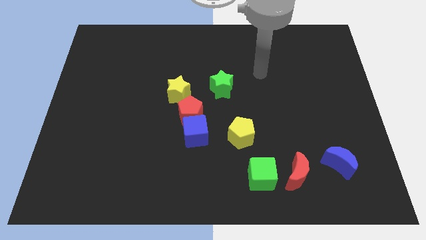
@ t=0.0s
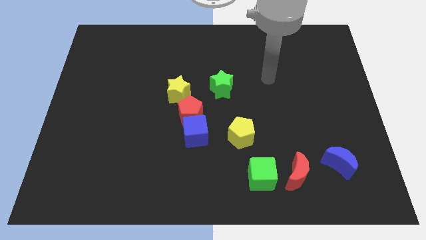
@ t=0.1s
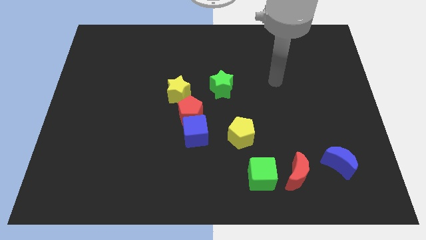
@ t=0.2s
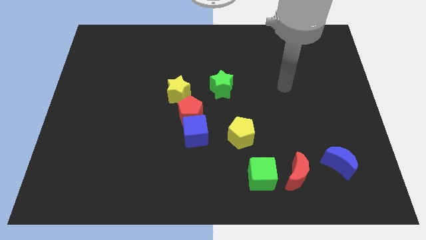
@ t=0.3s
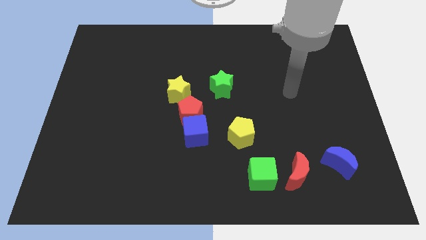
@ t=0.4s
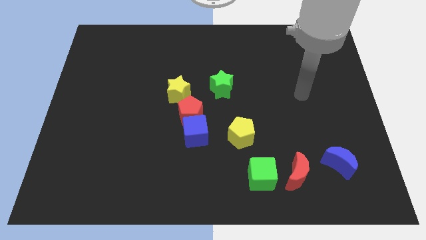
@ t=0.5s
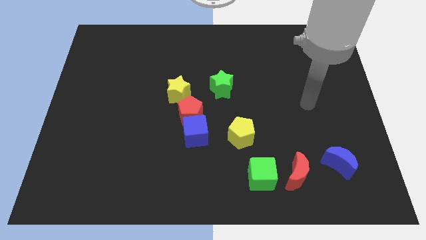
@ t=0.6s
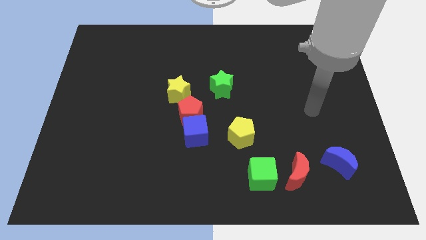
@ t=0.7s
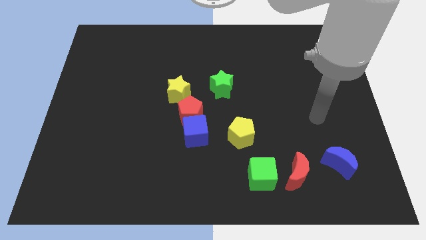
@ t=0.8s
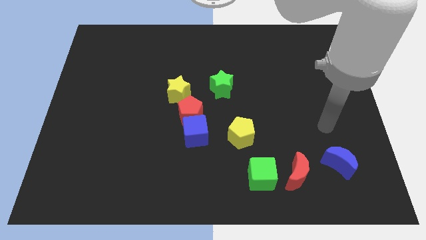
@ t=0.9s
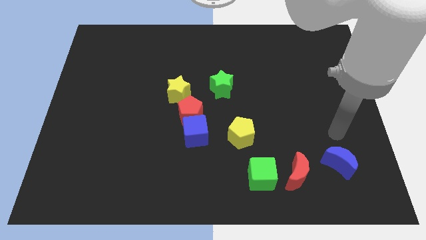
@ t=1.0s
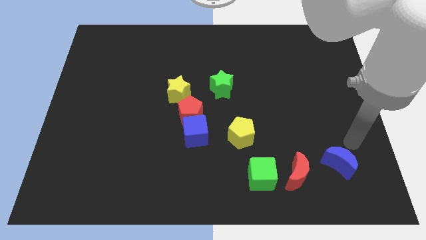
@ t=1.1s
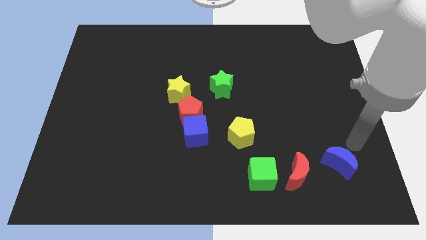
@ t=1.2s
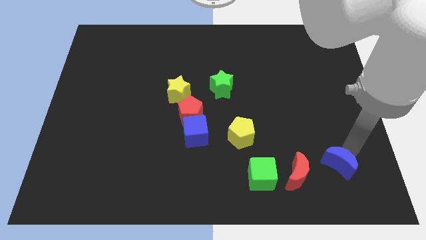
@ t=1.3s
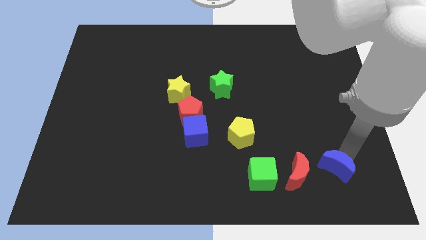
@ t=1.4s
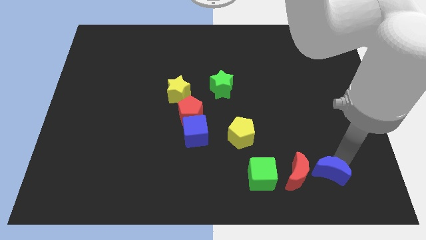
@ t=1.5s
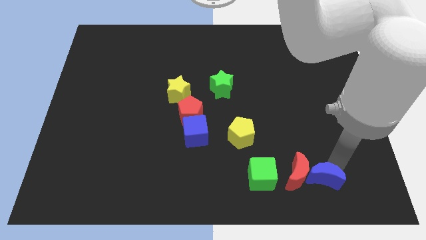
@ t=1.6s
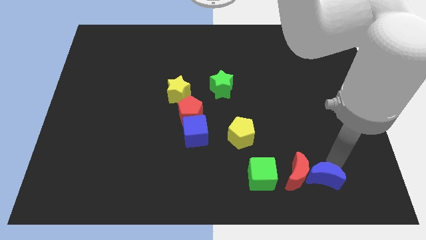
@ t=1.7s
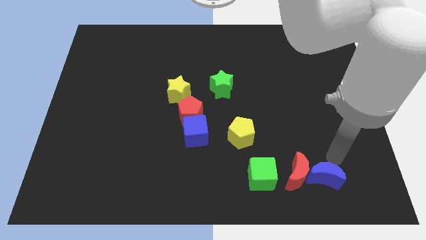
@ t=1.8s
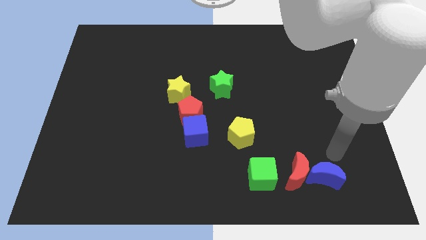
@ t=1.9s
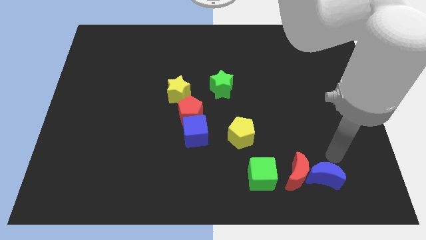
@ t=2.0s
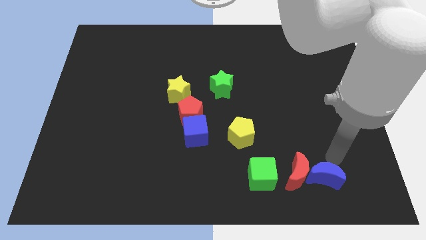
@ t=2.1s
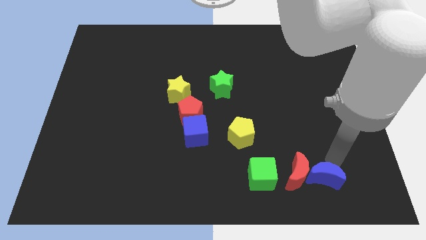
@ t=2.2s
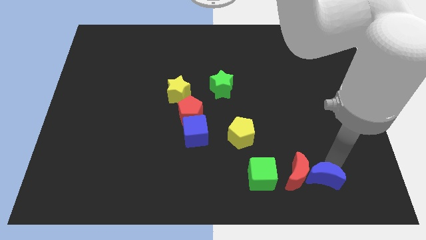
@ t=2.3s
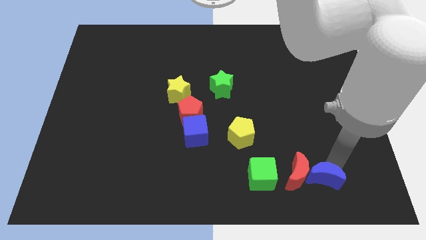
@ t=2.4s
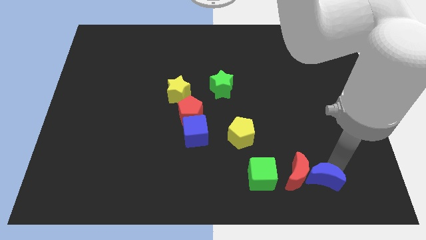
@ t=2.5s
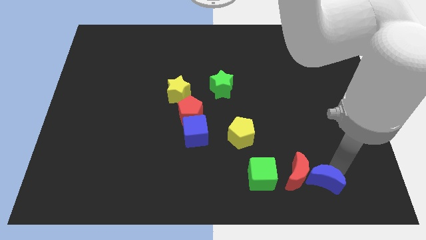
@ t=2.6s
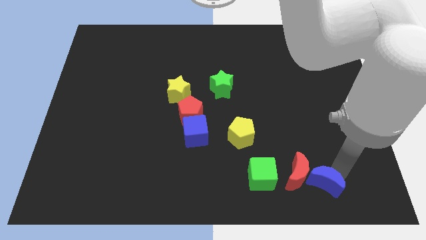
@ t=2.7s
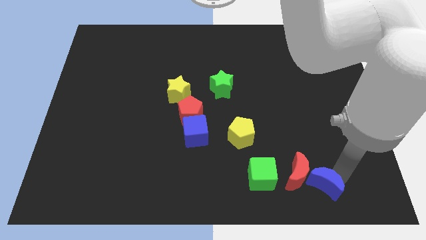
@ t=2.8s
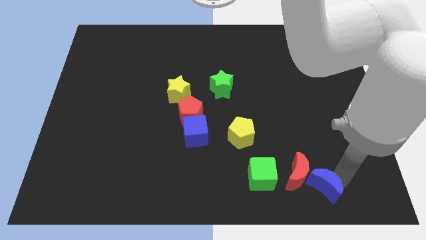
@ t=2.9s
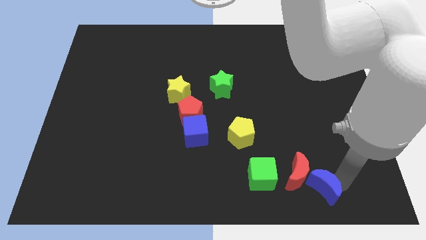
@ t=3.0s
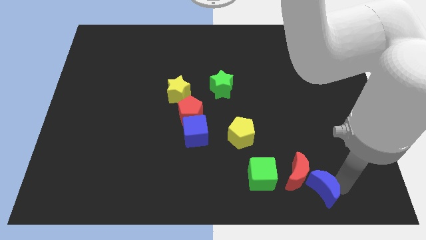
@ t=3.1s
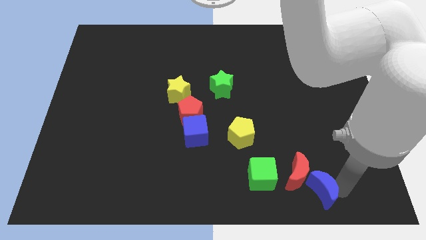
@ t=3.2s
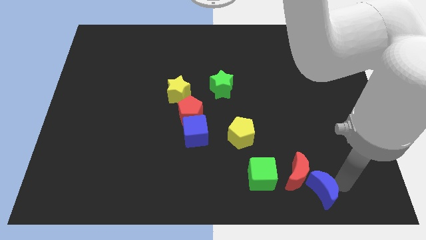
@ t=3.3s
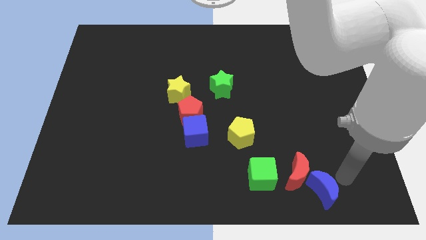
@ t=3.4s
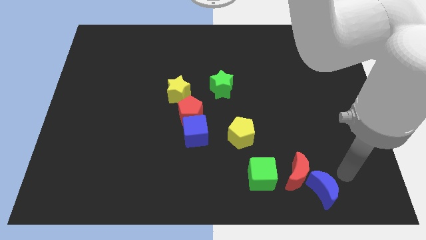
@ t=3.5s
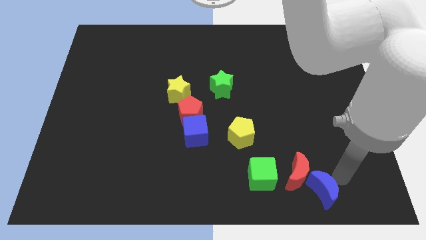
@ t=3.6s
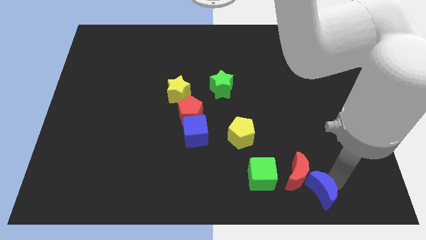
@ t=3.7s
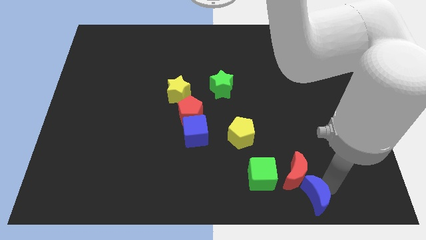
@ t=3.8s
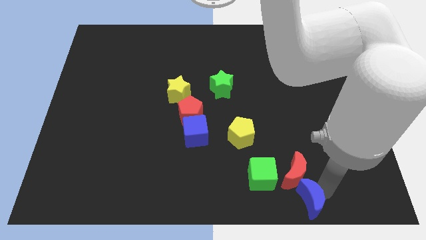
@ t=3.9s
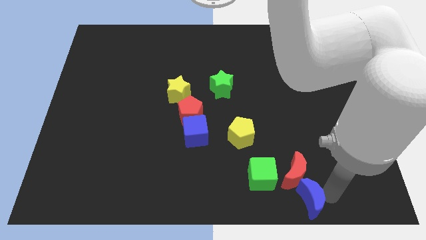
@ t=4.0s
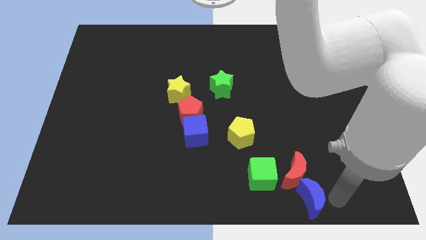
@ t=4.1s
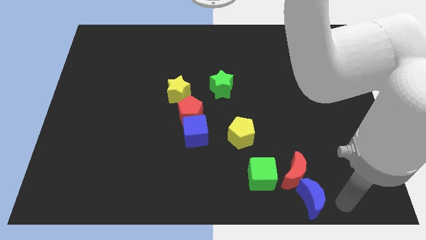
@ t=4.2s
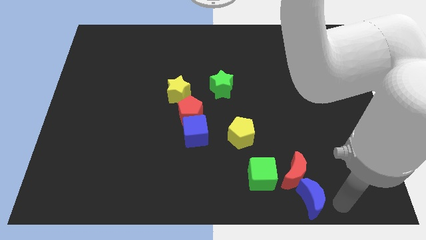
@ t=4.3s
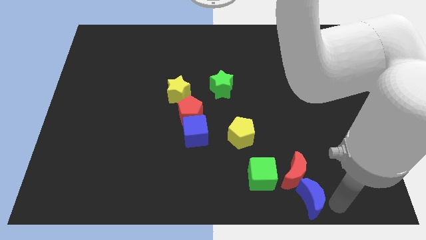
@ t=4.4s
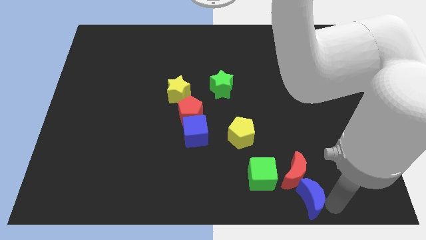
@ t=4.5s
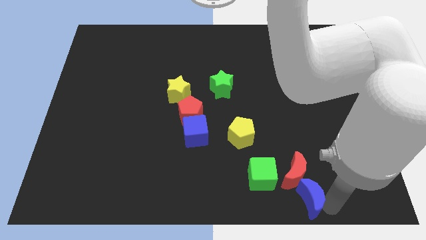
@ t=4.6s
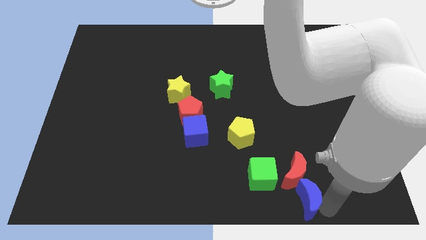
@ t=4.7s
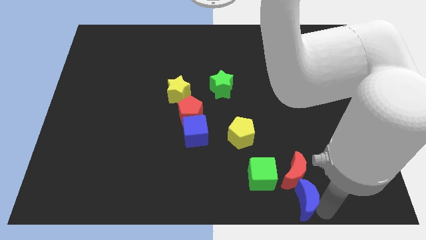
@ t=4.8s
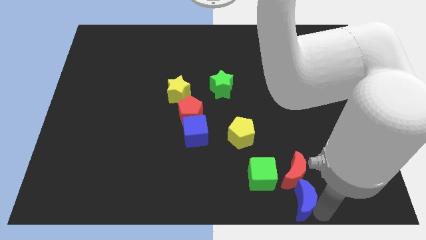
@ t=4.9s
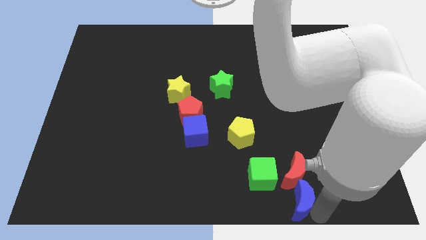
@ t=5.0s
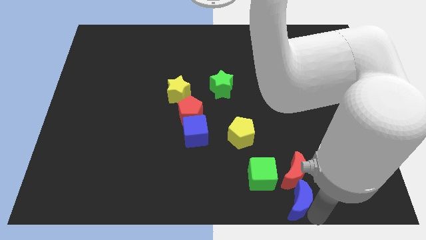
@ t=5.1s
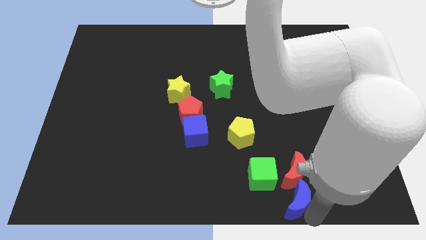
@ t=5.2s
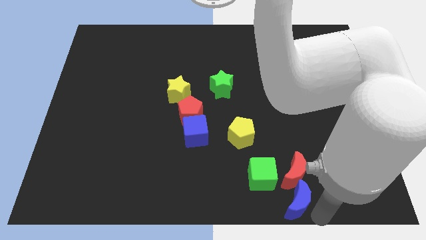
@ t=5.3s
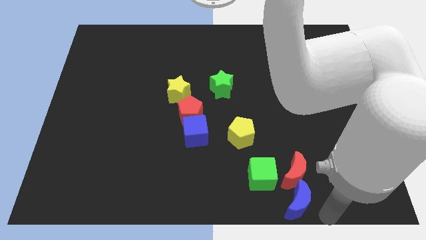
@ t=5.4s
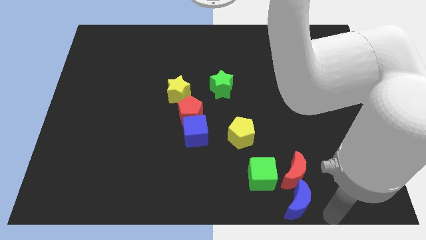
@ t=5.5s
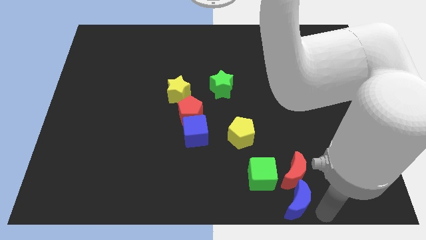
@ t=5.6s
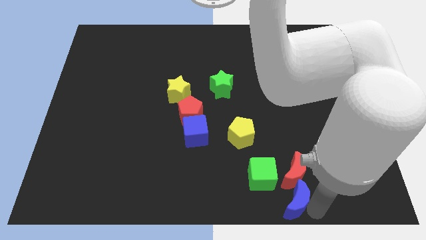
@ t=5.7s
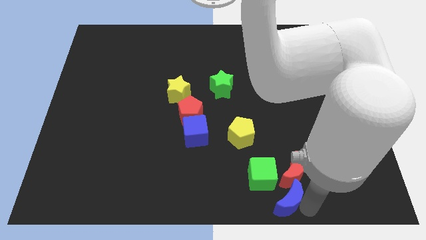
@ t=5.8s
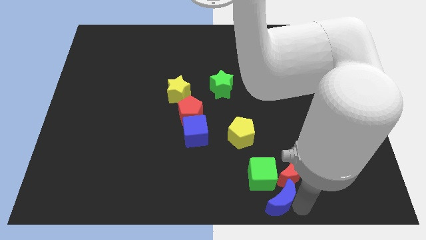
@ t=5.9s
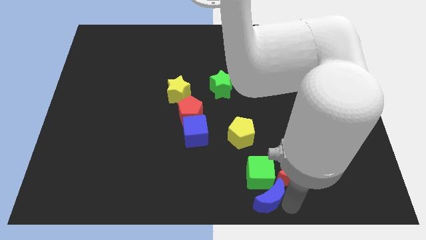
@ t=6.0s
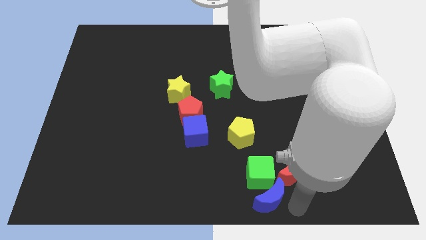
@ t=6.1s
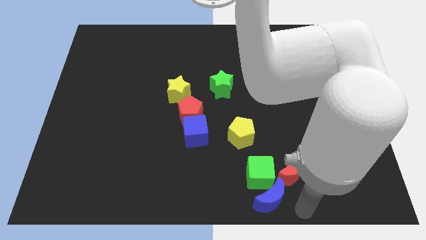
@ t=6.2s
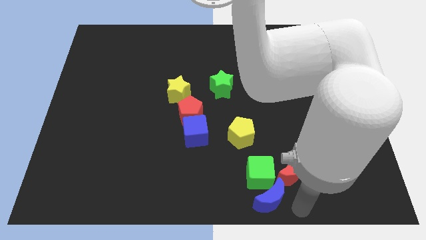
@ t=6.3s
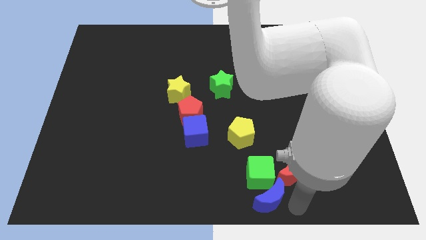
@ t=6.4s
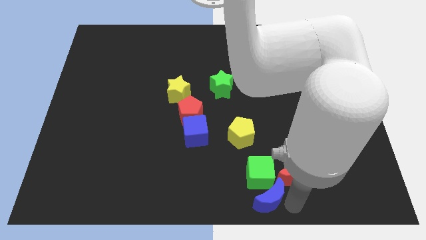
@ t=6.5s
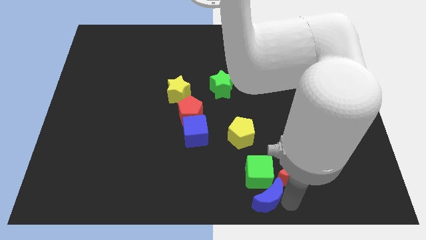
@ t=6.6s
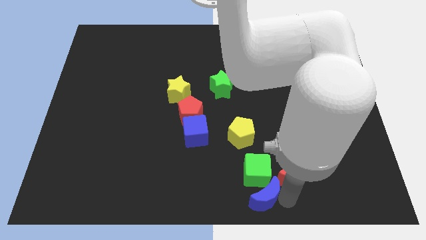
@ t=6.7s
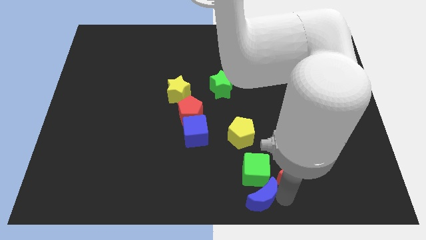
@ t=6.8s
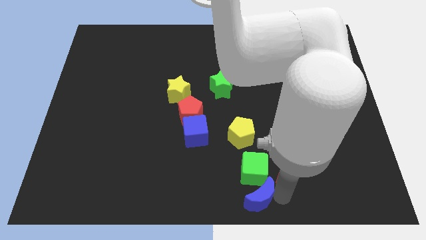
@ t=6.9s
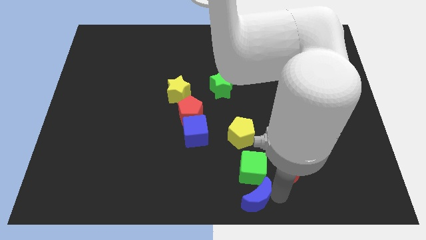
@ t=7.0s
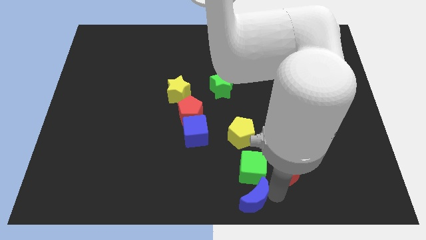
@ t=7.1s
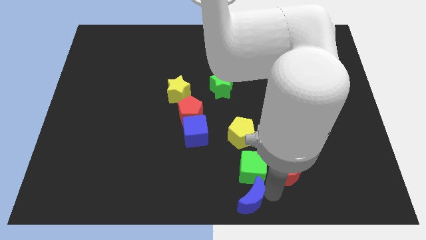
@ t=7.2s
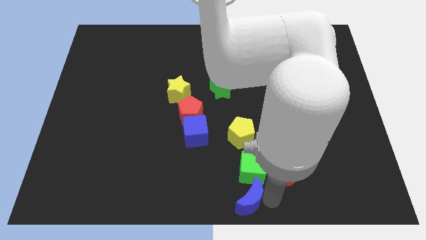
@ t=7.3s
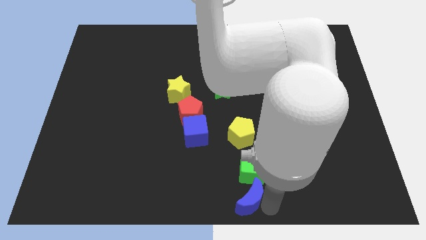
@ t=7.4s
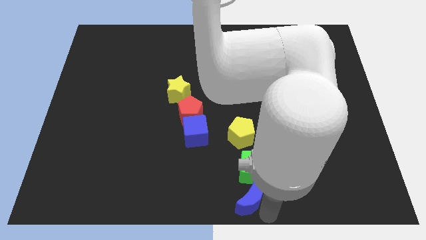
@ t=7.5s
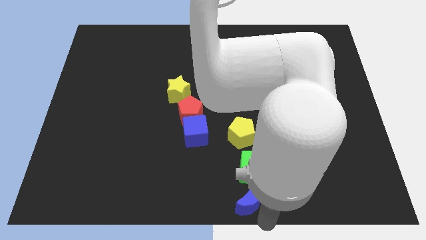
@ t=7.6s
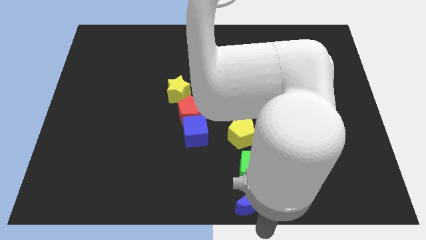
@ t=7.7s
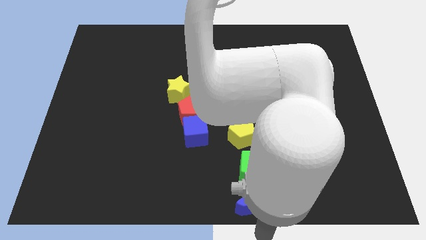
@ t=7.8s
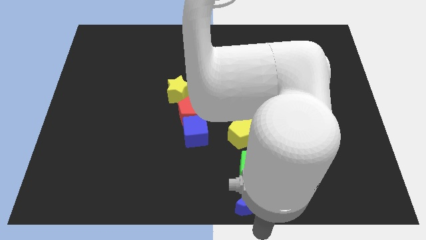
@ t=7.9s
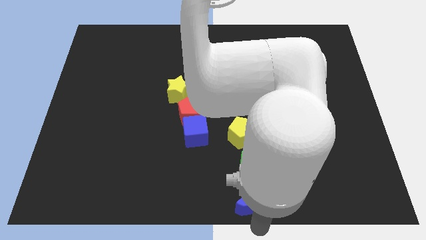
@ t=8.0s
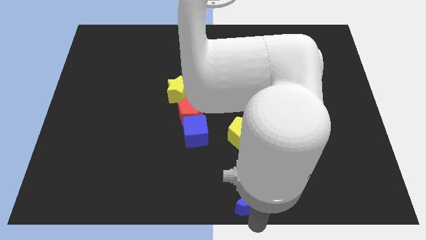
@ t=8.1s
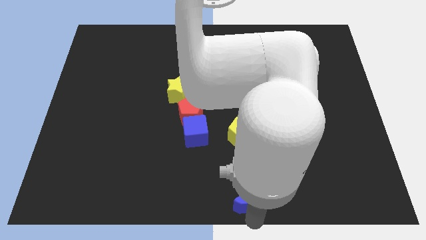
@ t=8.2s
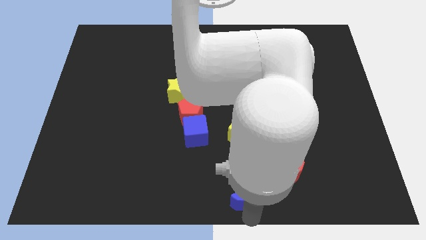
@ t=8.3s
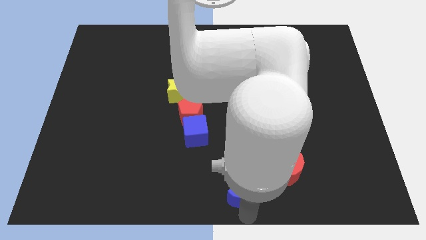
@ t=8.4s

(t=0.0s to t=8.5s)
slide the blue moon to the left of the red moon
